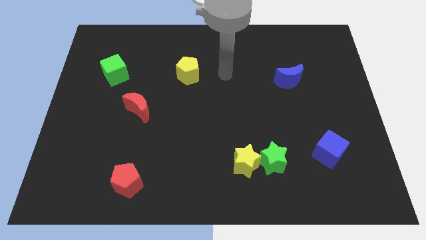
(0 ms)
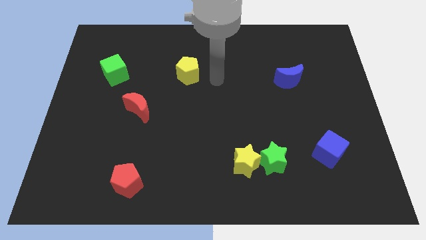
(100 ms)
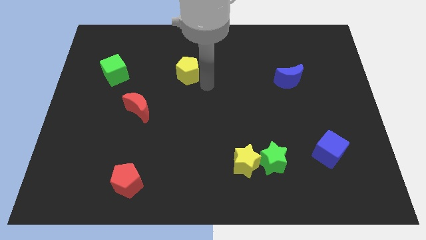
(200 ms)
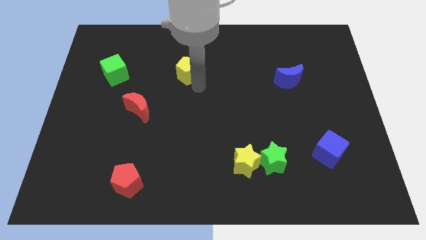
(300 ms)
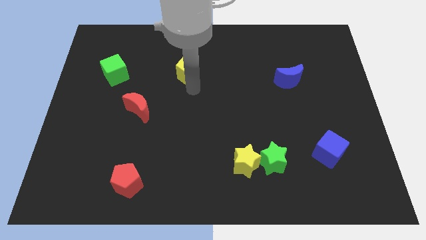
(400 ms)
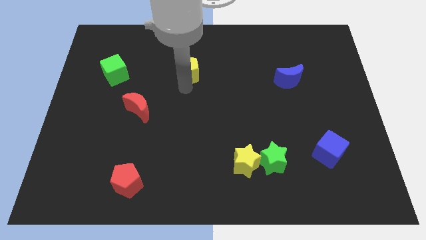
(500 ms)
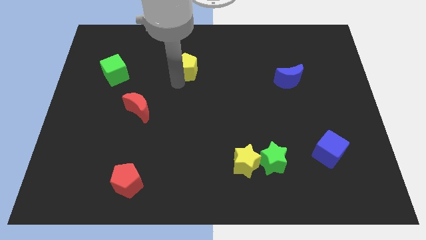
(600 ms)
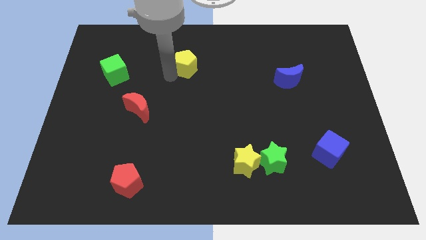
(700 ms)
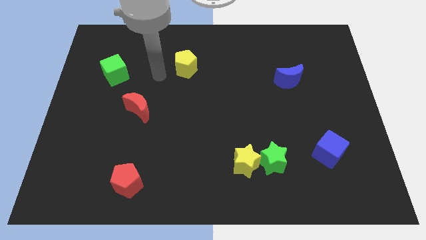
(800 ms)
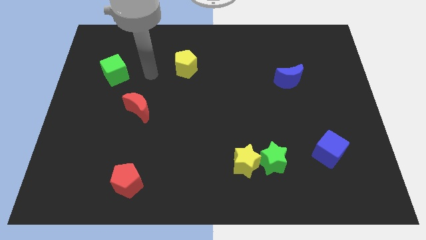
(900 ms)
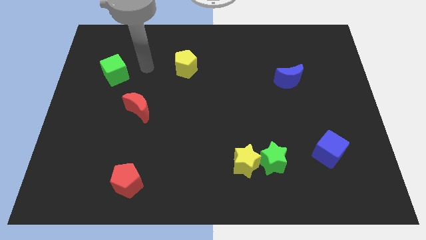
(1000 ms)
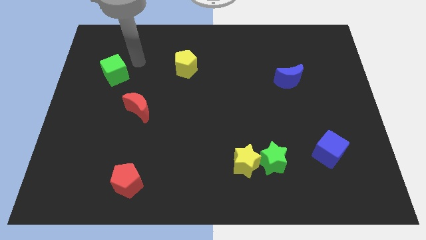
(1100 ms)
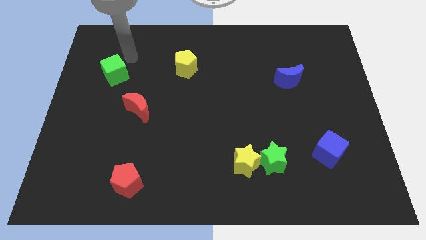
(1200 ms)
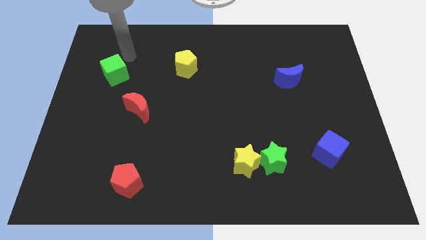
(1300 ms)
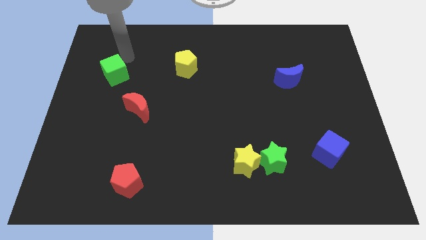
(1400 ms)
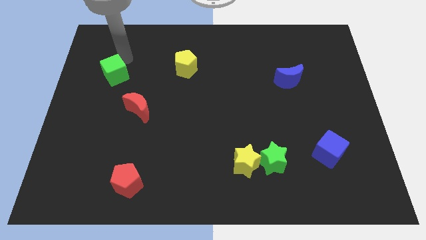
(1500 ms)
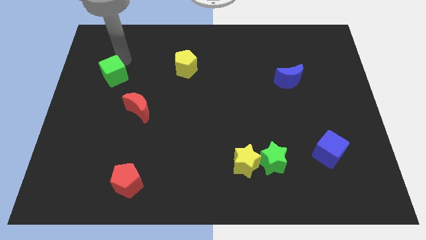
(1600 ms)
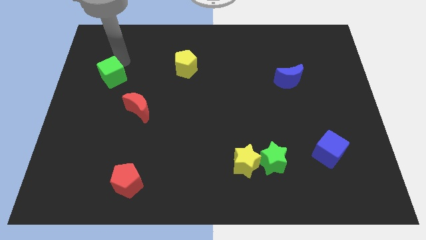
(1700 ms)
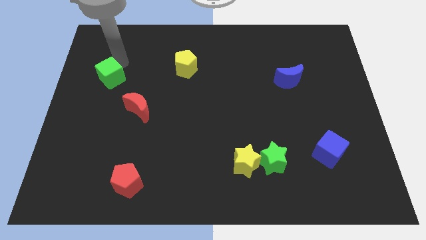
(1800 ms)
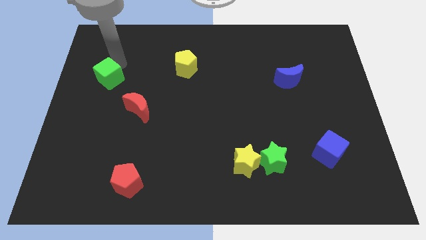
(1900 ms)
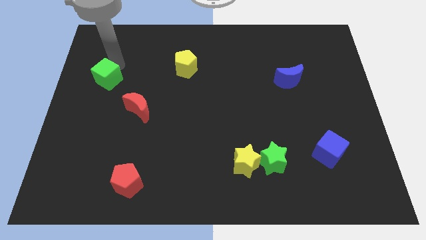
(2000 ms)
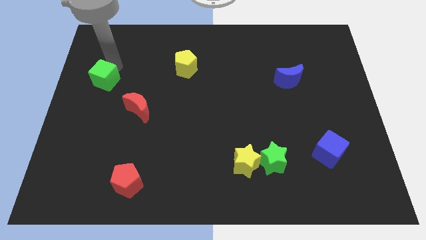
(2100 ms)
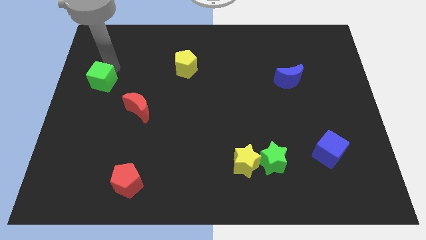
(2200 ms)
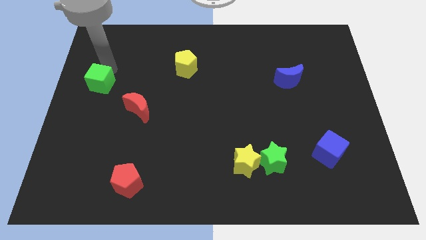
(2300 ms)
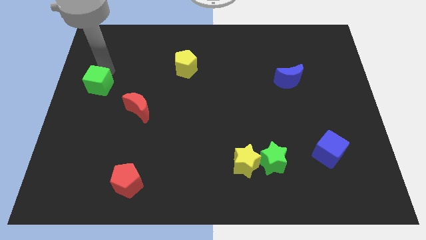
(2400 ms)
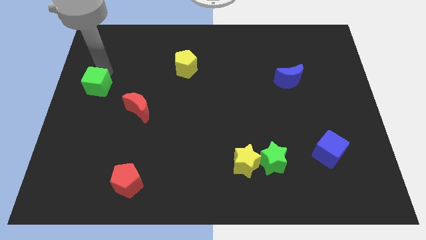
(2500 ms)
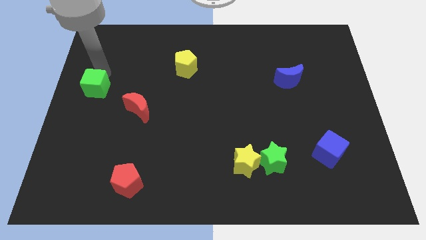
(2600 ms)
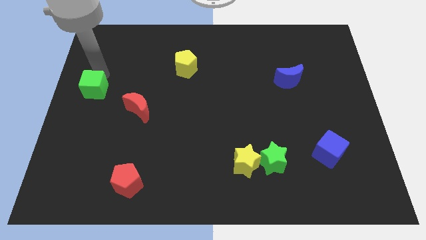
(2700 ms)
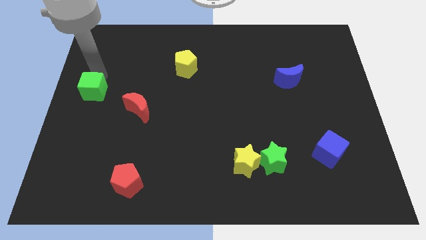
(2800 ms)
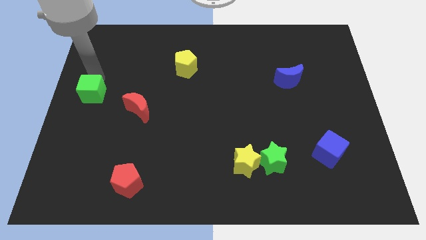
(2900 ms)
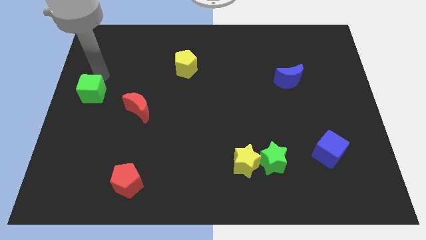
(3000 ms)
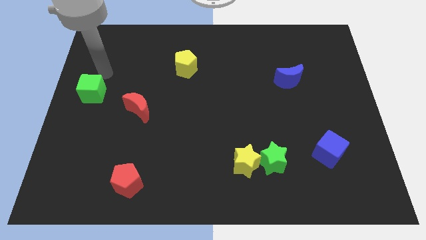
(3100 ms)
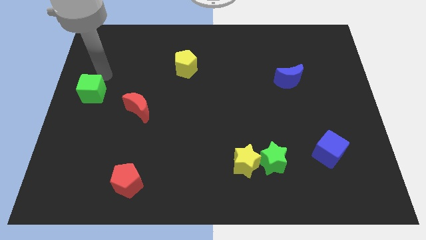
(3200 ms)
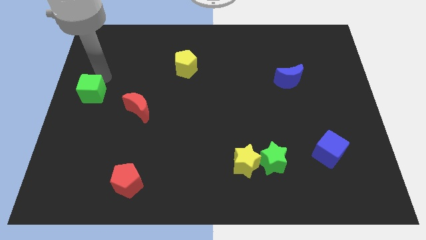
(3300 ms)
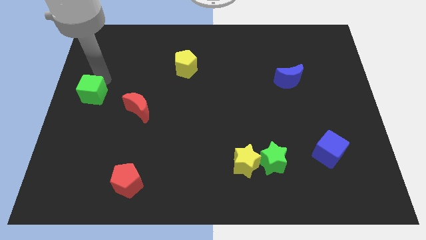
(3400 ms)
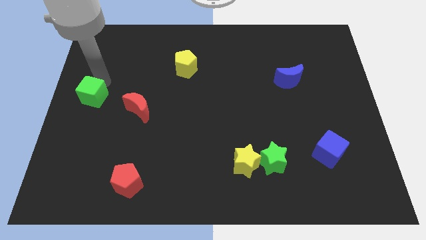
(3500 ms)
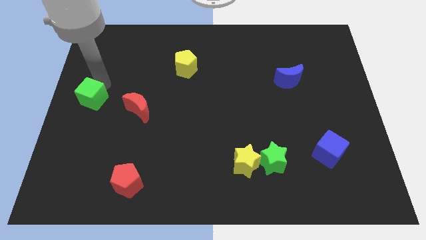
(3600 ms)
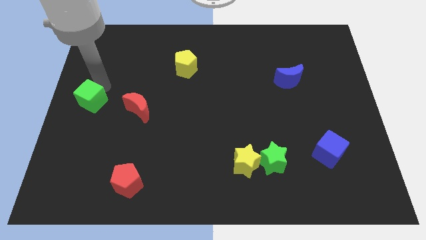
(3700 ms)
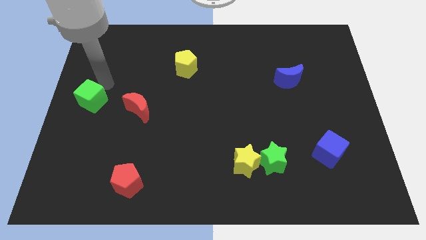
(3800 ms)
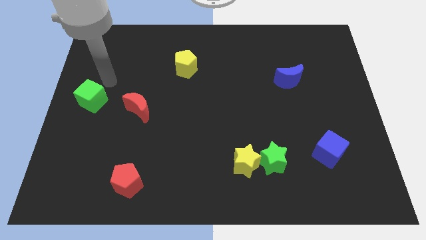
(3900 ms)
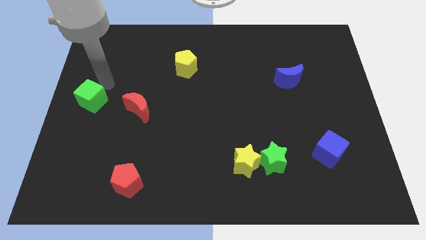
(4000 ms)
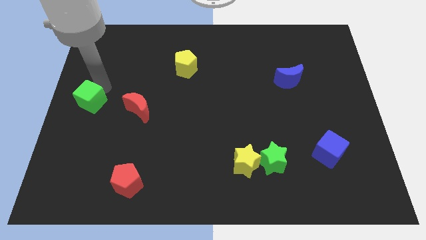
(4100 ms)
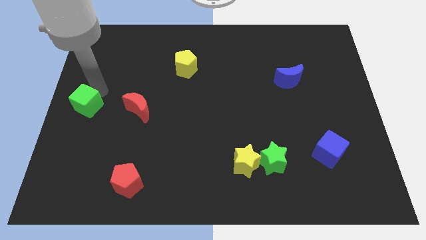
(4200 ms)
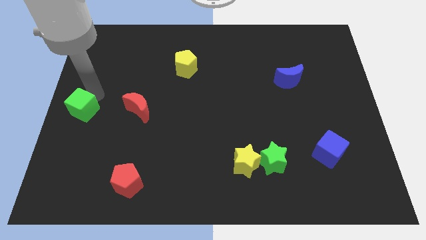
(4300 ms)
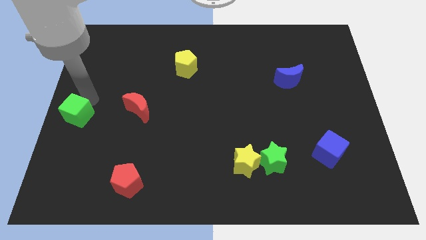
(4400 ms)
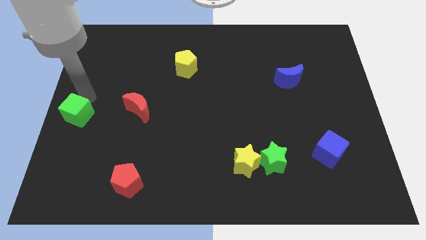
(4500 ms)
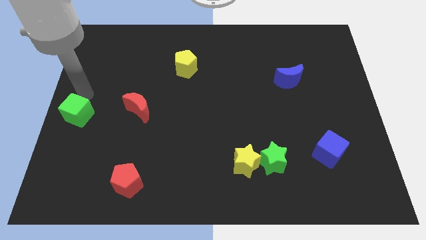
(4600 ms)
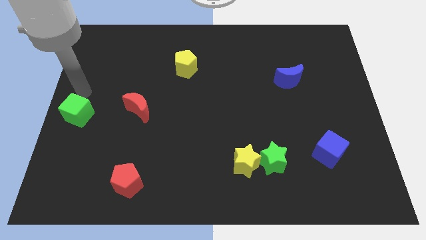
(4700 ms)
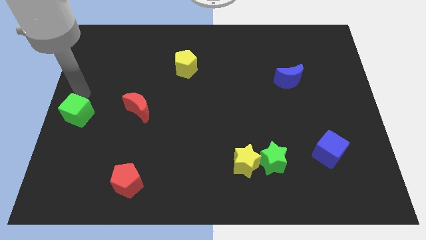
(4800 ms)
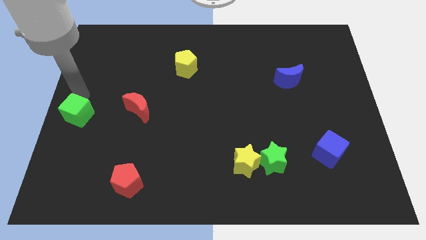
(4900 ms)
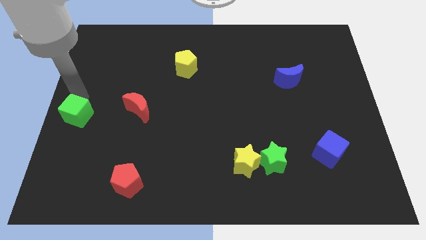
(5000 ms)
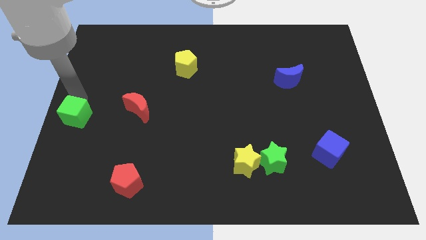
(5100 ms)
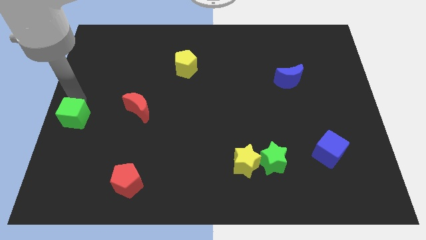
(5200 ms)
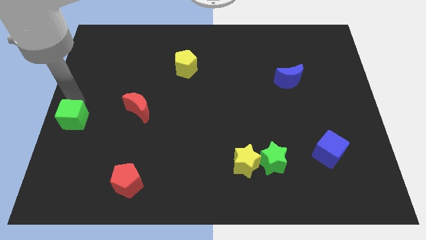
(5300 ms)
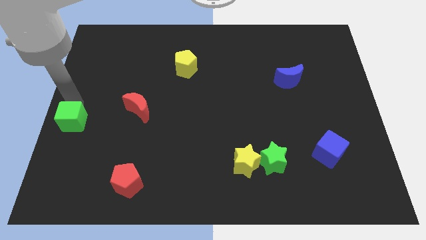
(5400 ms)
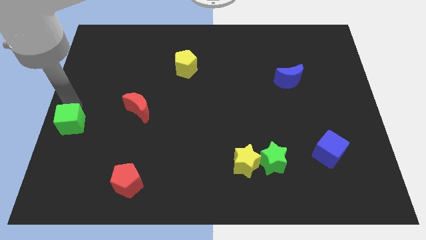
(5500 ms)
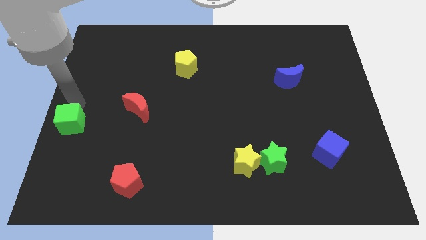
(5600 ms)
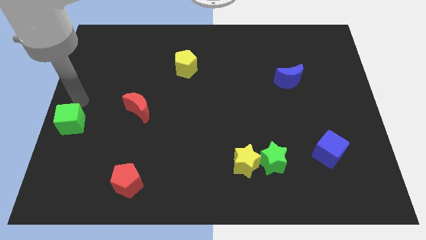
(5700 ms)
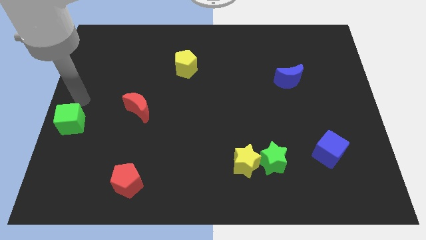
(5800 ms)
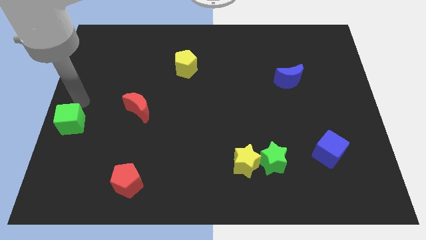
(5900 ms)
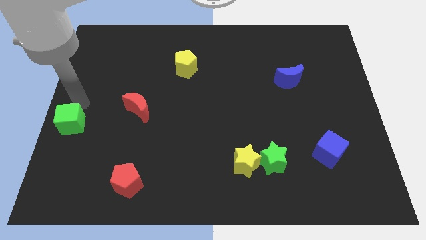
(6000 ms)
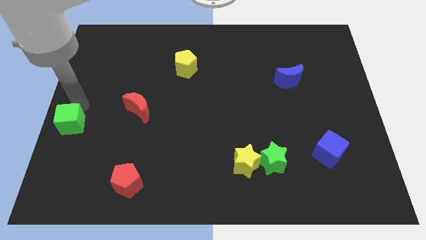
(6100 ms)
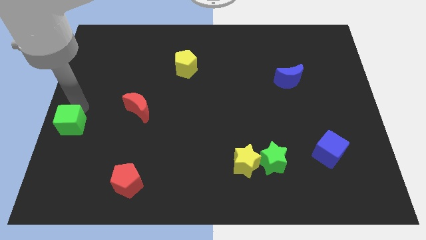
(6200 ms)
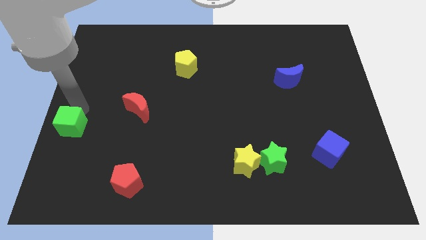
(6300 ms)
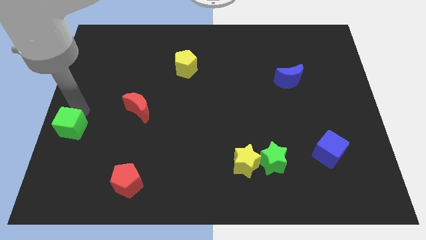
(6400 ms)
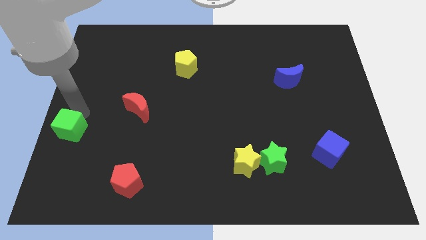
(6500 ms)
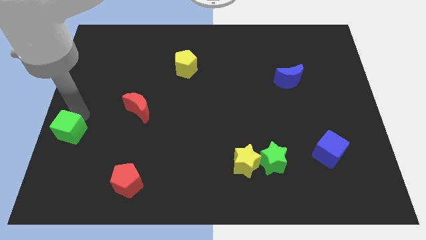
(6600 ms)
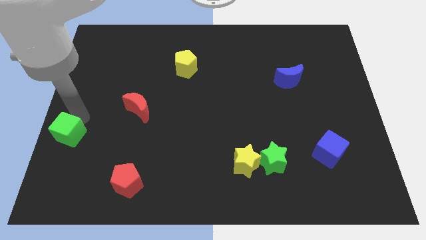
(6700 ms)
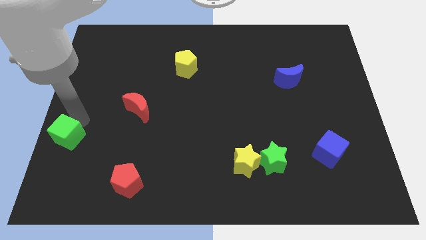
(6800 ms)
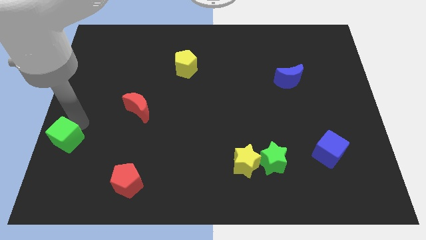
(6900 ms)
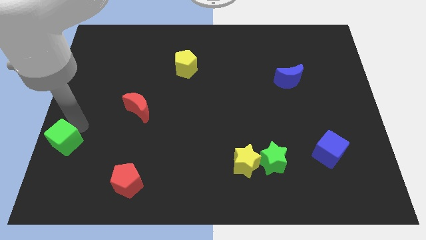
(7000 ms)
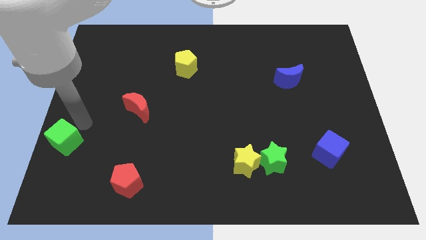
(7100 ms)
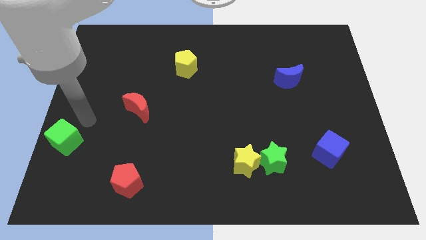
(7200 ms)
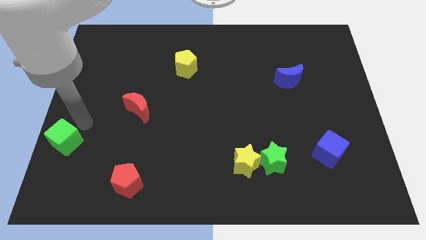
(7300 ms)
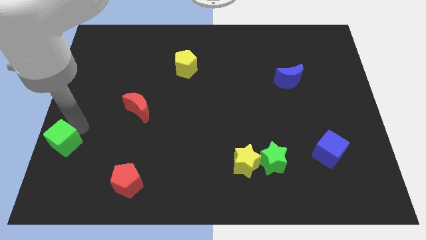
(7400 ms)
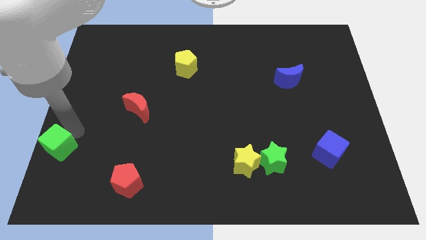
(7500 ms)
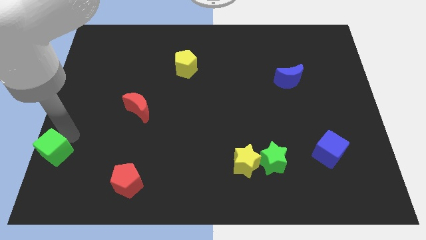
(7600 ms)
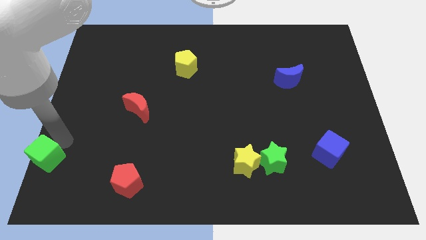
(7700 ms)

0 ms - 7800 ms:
move the green cube to the bottom left corner
